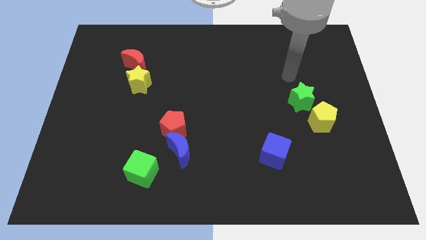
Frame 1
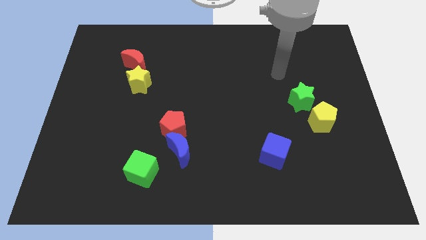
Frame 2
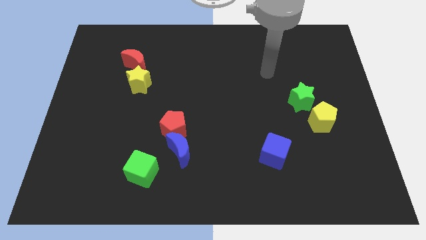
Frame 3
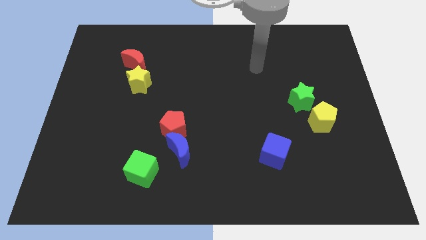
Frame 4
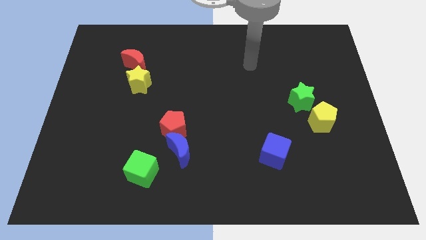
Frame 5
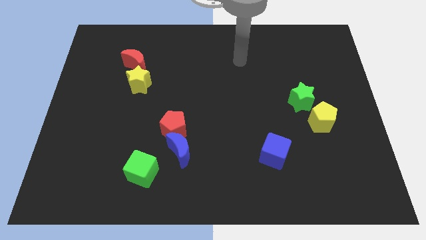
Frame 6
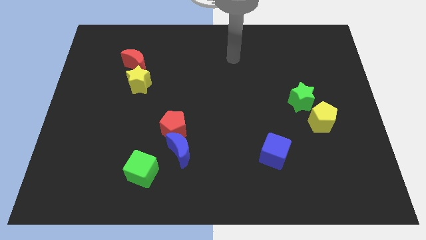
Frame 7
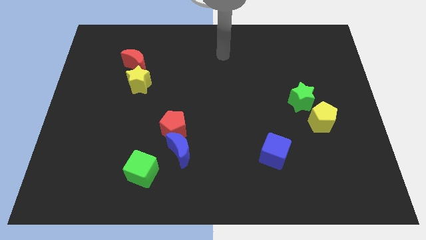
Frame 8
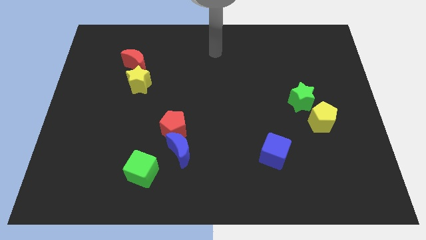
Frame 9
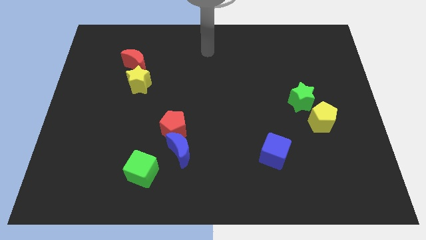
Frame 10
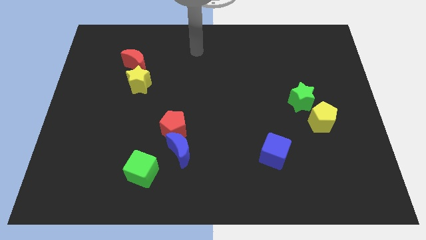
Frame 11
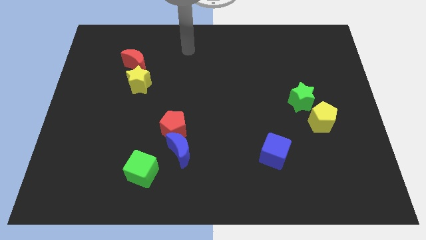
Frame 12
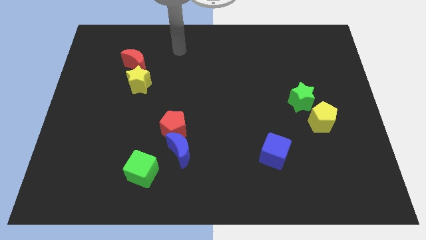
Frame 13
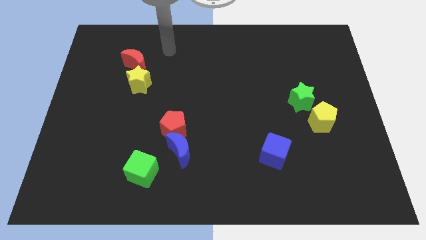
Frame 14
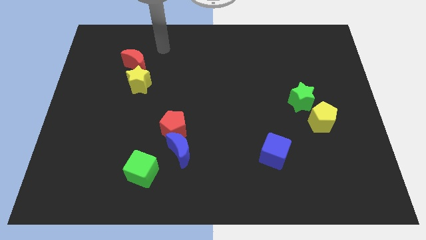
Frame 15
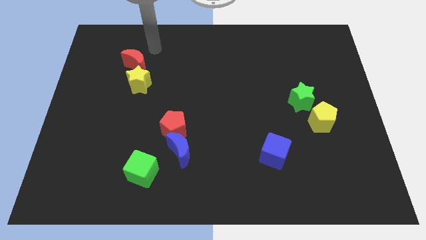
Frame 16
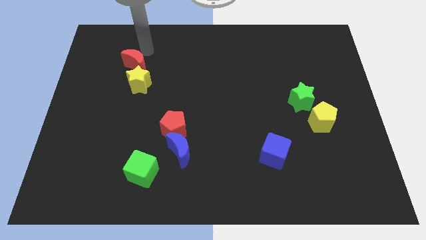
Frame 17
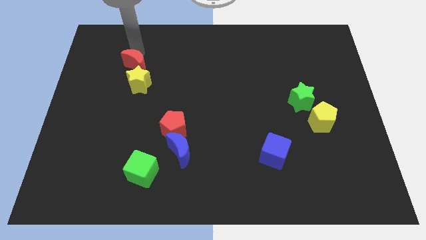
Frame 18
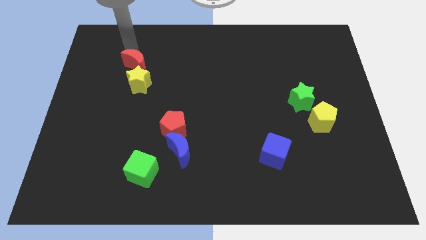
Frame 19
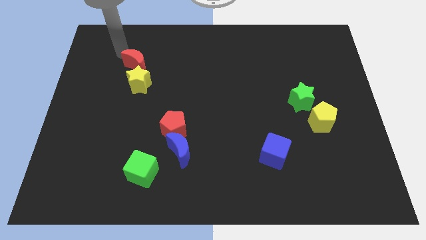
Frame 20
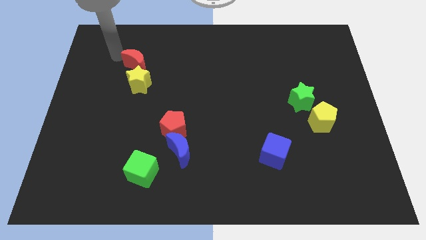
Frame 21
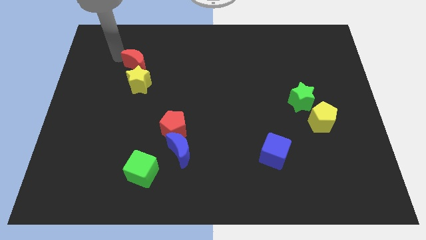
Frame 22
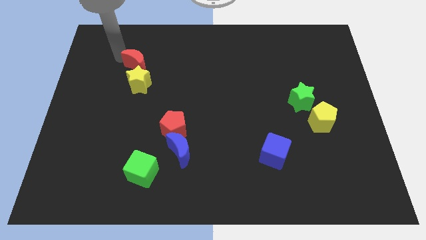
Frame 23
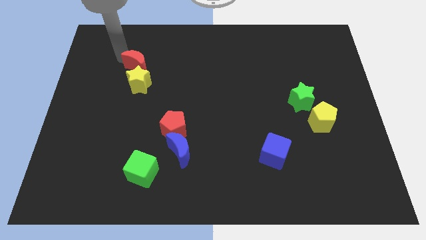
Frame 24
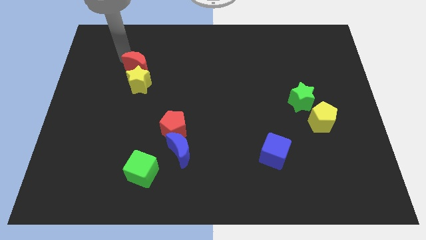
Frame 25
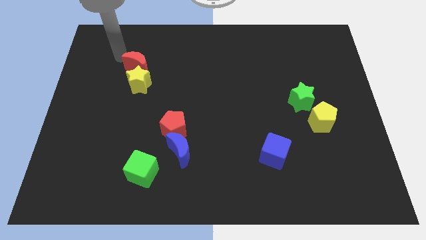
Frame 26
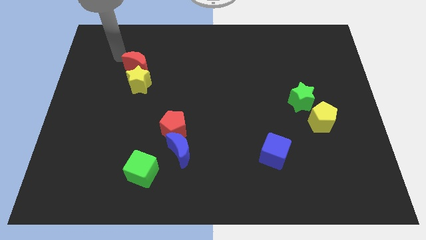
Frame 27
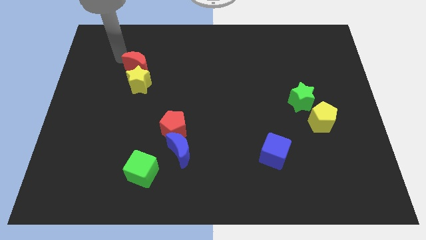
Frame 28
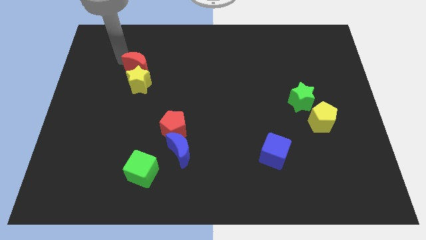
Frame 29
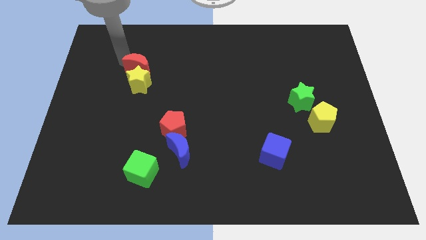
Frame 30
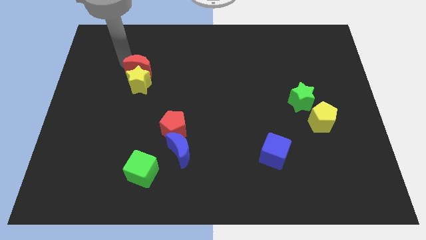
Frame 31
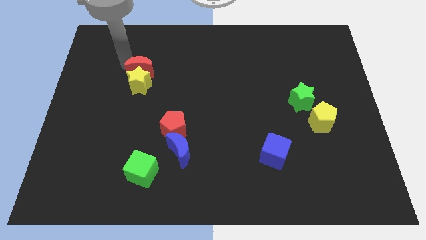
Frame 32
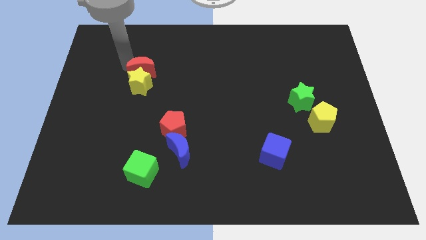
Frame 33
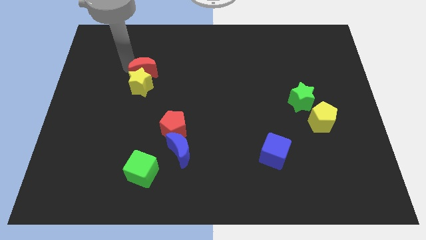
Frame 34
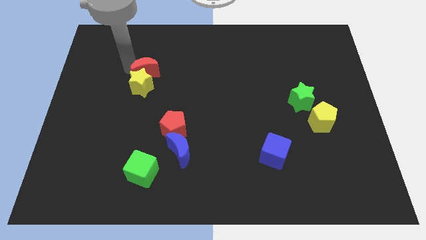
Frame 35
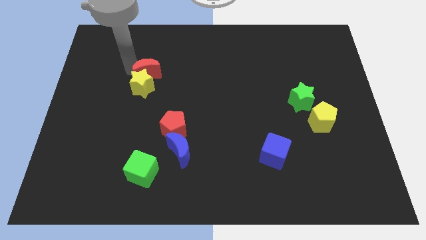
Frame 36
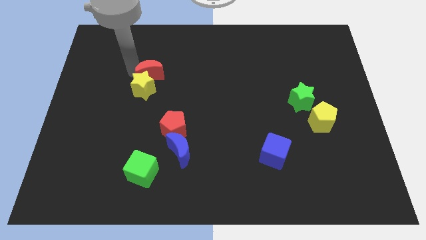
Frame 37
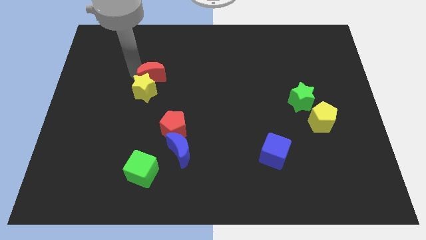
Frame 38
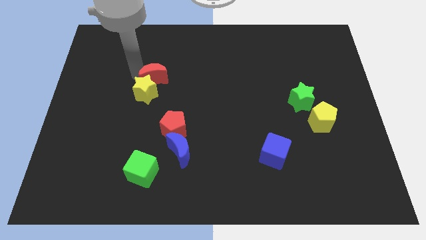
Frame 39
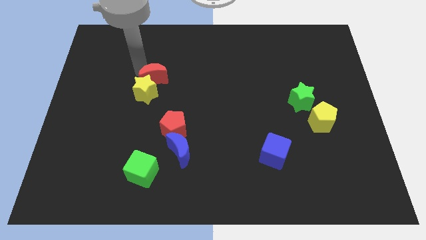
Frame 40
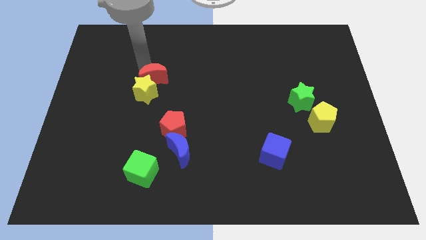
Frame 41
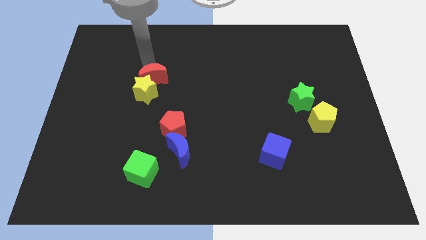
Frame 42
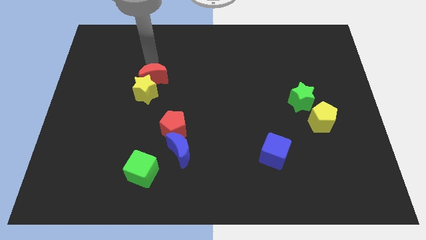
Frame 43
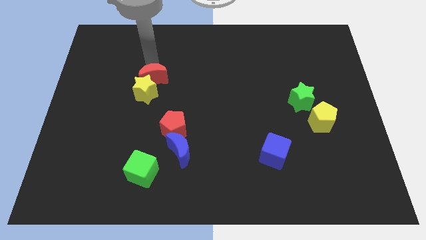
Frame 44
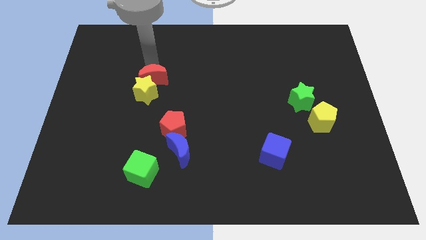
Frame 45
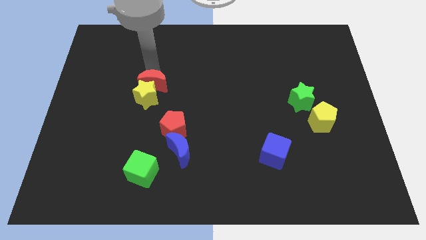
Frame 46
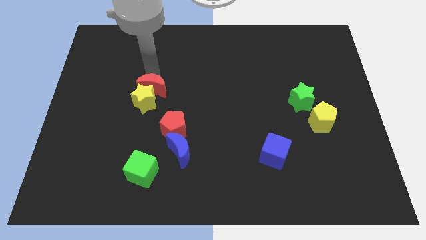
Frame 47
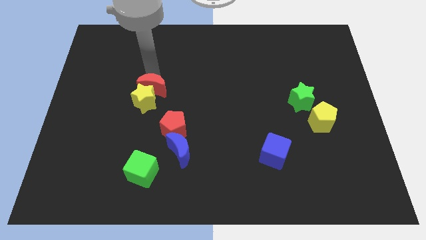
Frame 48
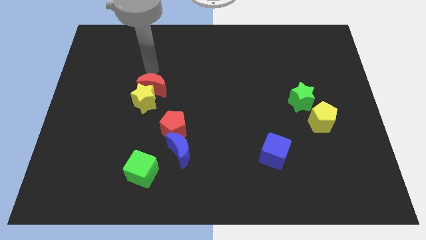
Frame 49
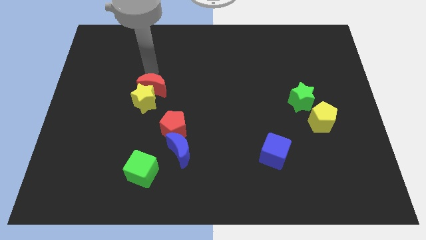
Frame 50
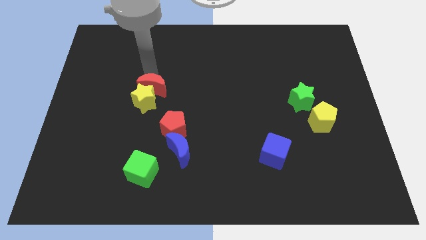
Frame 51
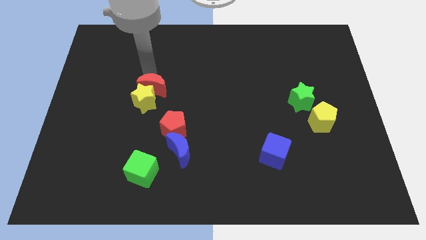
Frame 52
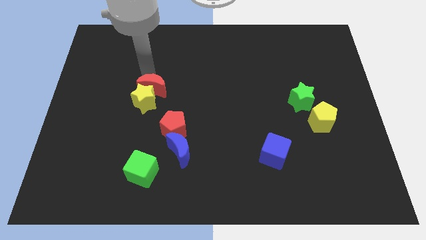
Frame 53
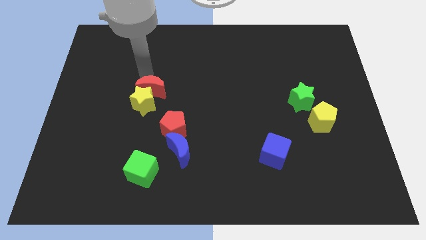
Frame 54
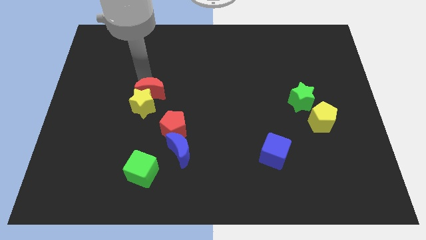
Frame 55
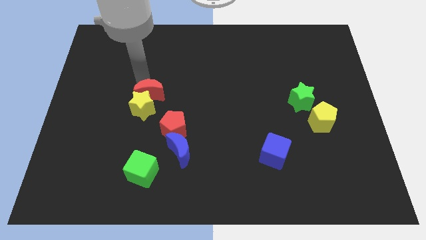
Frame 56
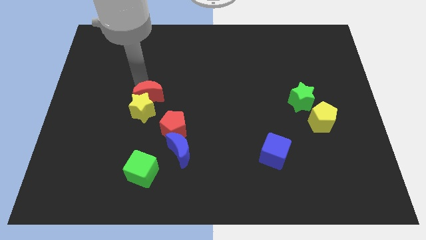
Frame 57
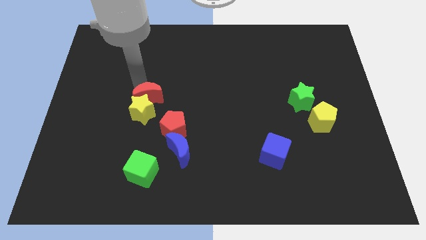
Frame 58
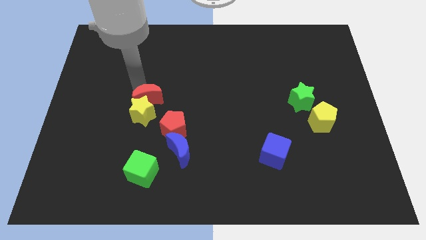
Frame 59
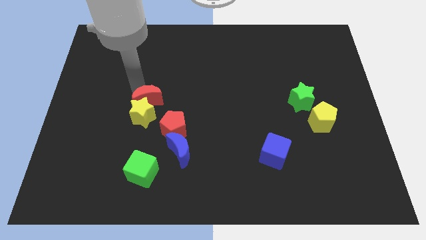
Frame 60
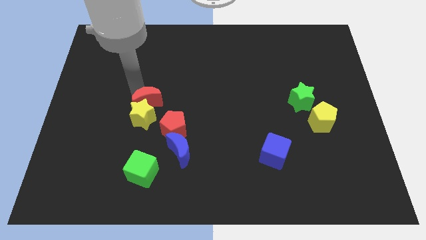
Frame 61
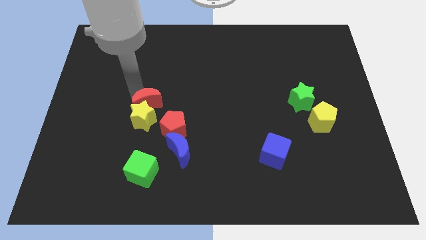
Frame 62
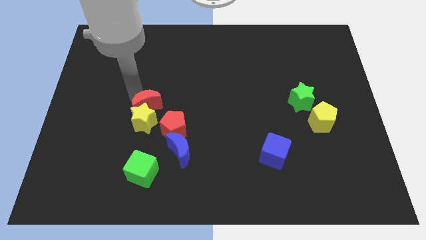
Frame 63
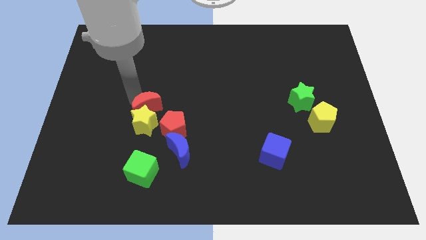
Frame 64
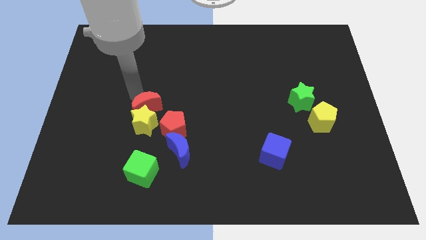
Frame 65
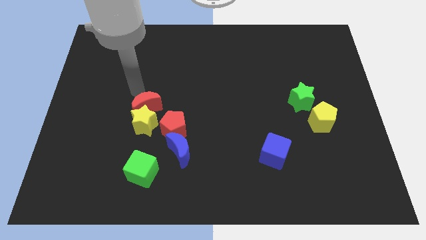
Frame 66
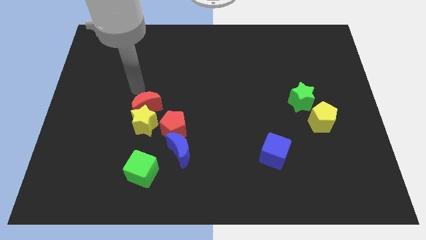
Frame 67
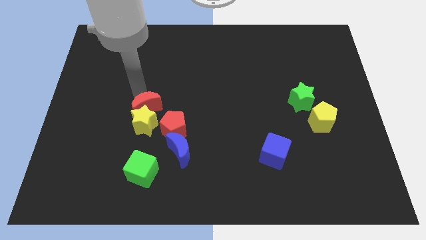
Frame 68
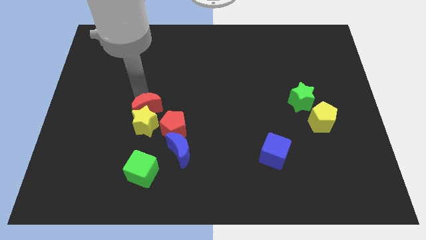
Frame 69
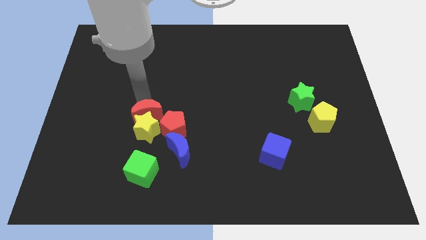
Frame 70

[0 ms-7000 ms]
slide the red moon diagonally up and to the left of the blue moon
